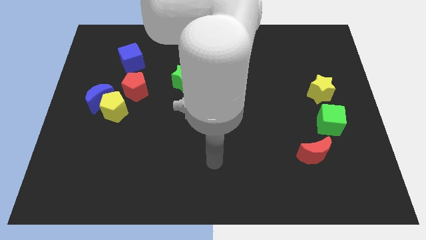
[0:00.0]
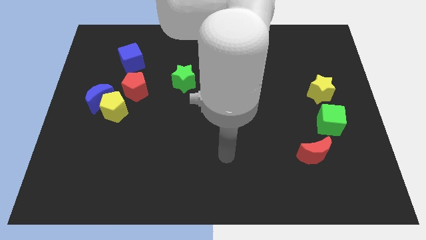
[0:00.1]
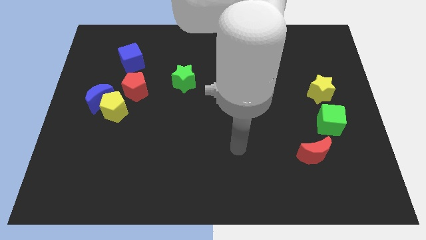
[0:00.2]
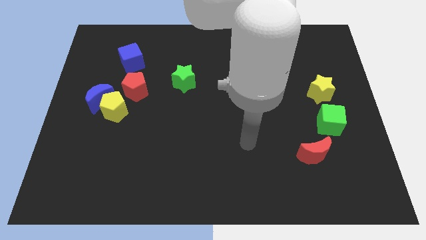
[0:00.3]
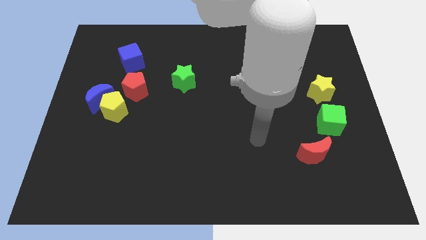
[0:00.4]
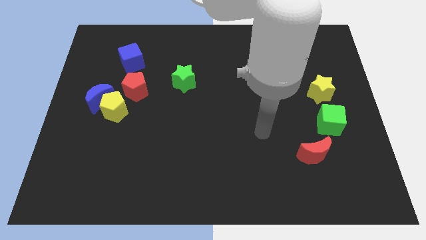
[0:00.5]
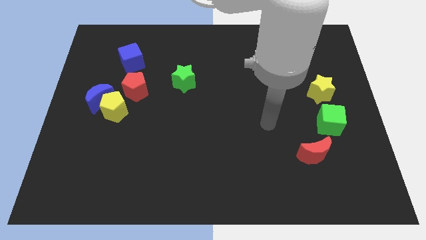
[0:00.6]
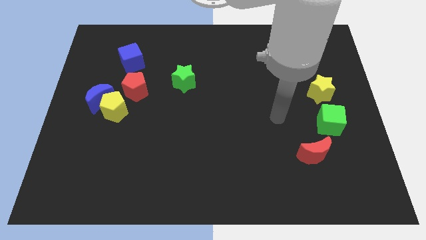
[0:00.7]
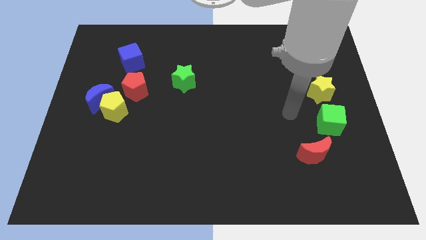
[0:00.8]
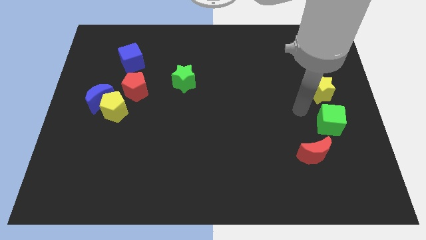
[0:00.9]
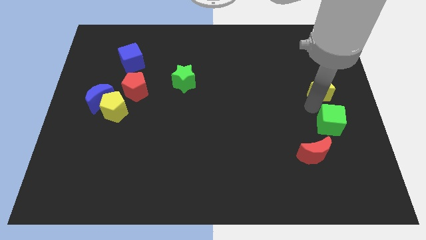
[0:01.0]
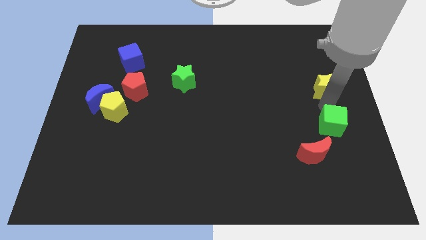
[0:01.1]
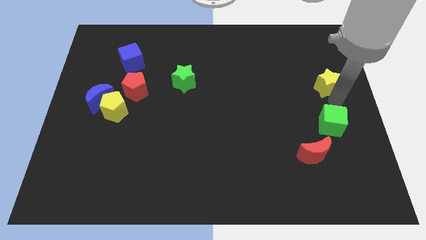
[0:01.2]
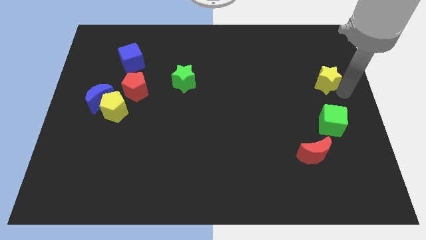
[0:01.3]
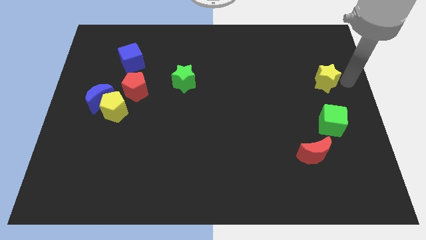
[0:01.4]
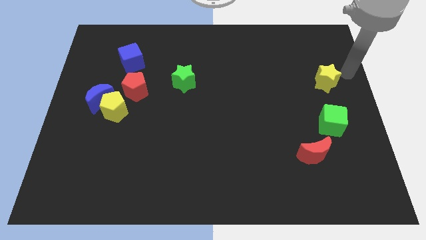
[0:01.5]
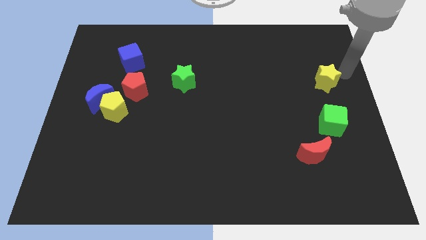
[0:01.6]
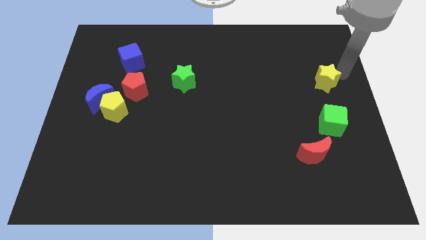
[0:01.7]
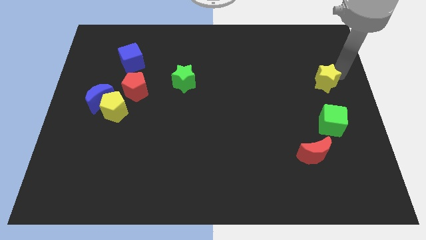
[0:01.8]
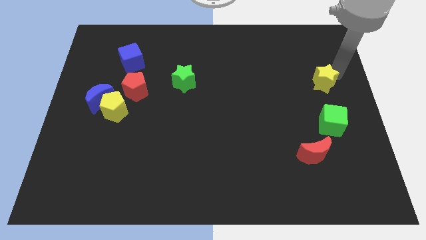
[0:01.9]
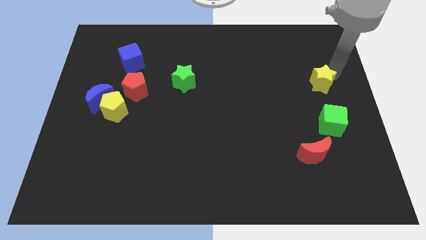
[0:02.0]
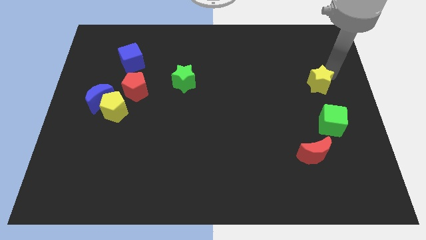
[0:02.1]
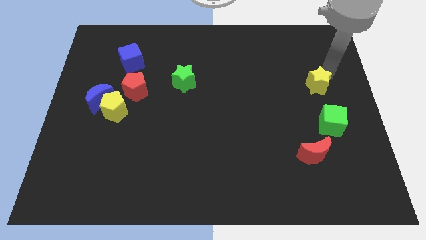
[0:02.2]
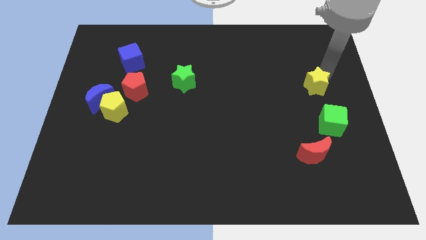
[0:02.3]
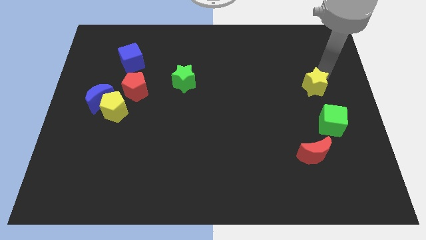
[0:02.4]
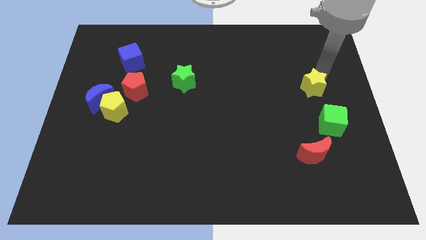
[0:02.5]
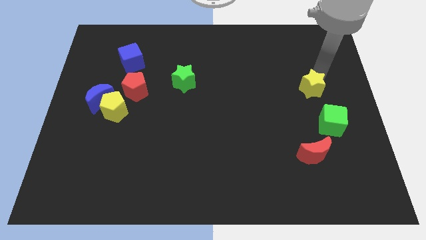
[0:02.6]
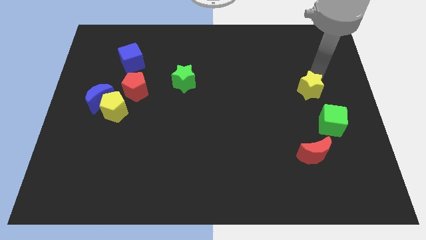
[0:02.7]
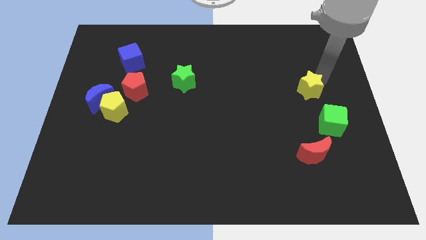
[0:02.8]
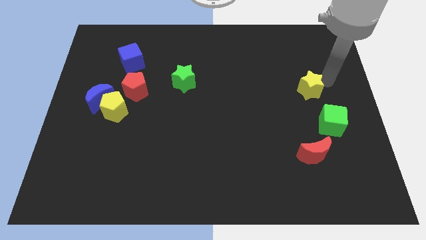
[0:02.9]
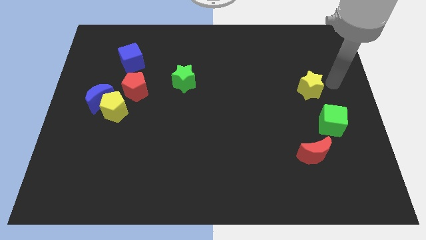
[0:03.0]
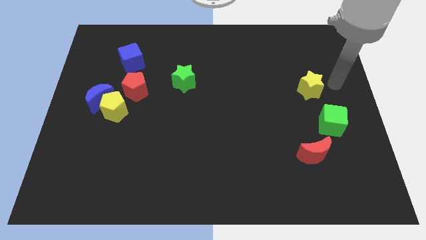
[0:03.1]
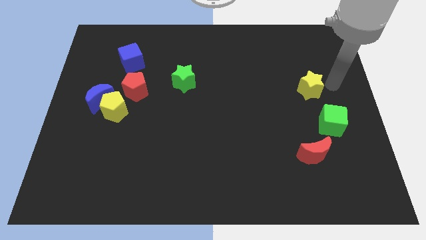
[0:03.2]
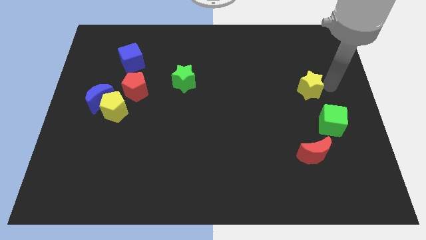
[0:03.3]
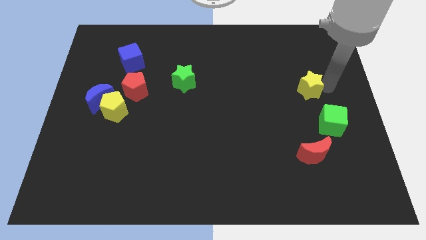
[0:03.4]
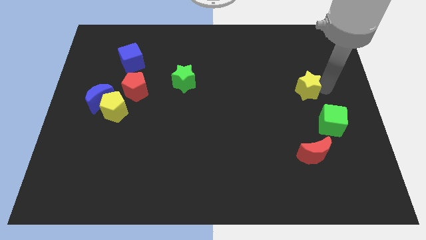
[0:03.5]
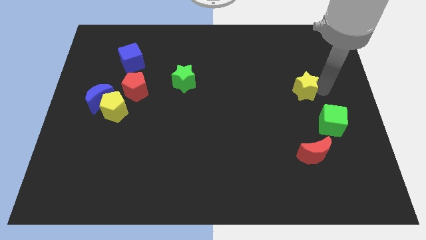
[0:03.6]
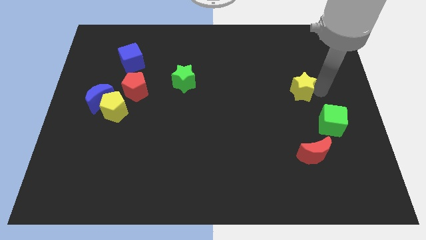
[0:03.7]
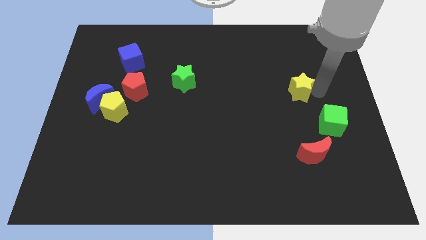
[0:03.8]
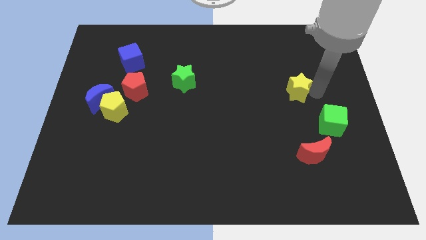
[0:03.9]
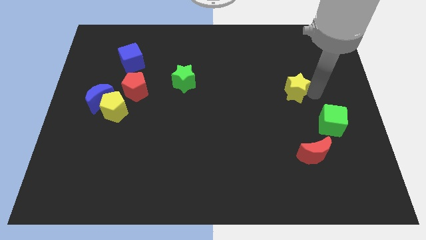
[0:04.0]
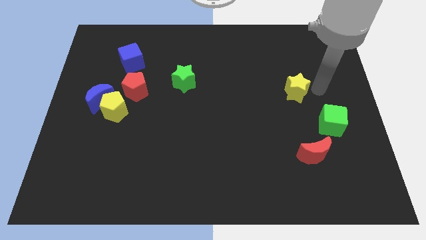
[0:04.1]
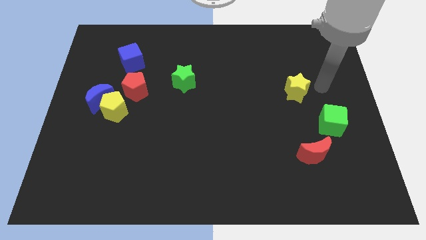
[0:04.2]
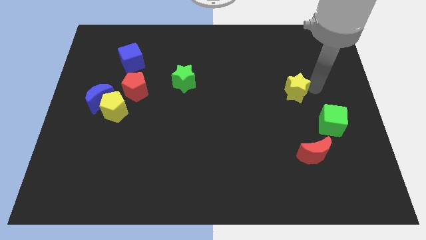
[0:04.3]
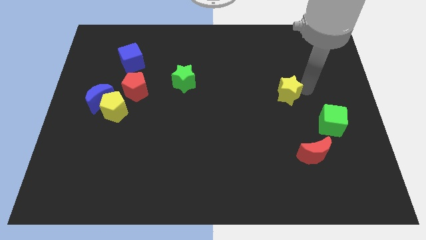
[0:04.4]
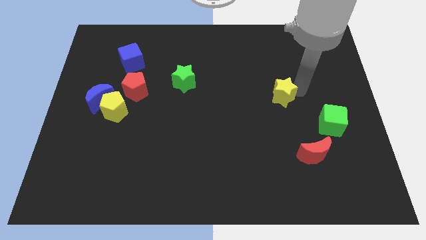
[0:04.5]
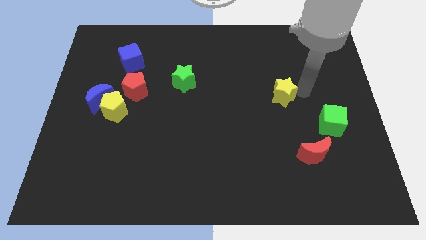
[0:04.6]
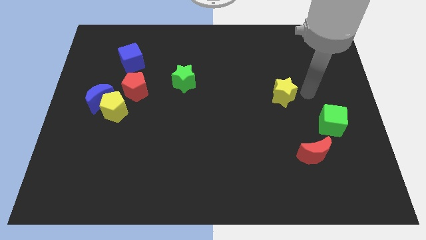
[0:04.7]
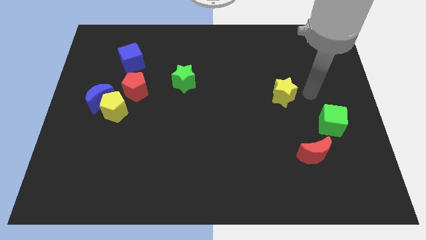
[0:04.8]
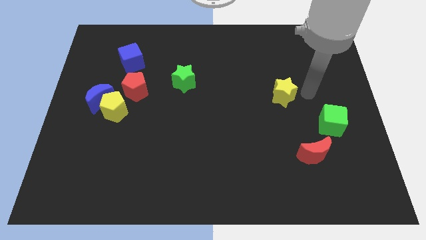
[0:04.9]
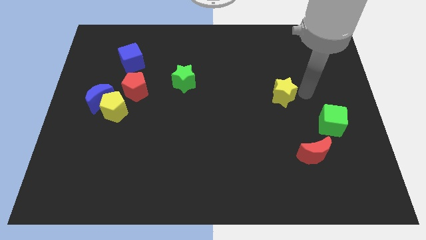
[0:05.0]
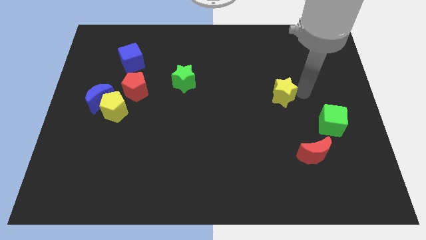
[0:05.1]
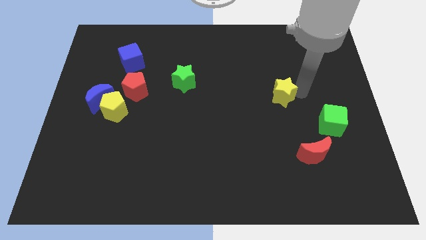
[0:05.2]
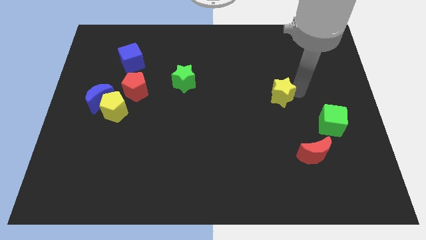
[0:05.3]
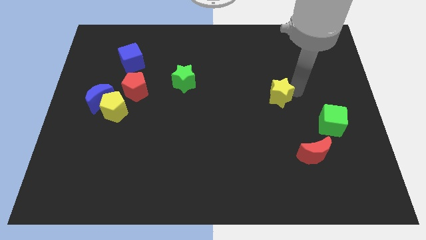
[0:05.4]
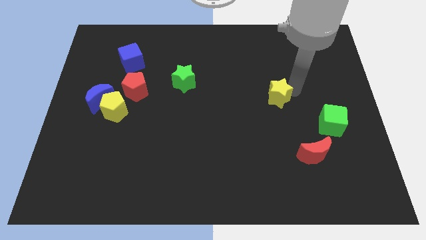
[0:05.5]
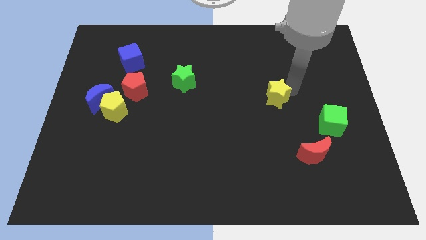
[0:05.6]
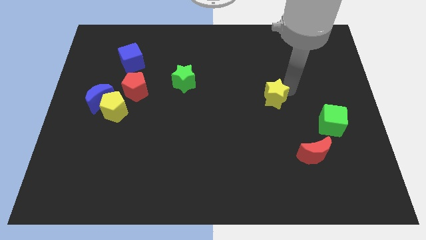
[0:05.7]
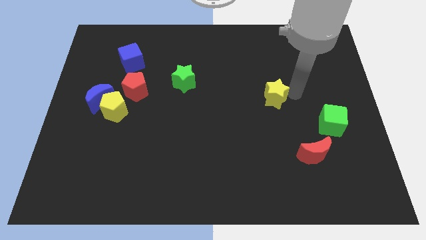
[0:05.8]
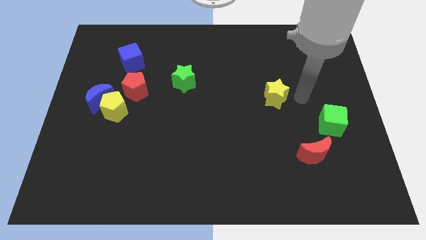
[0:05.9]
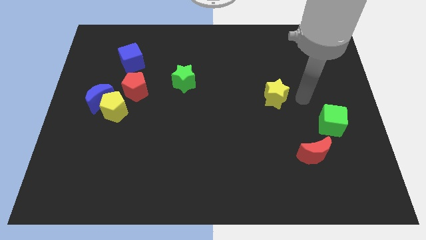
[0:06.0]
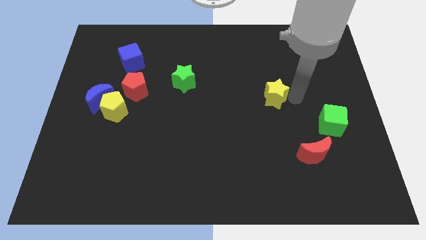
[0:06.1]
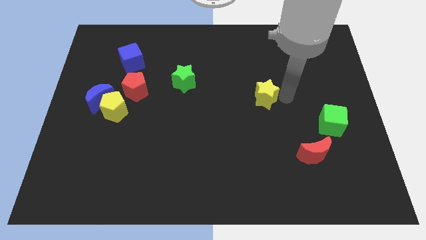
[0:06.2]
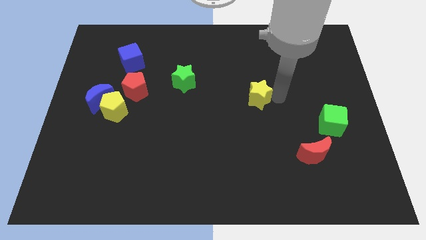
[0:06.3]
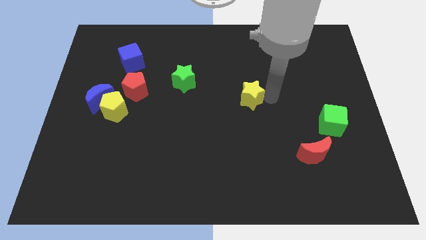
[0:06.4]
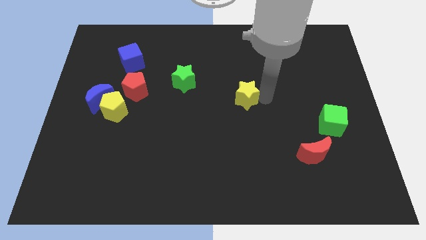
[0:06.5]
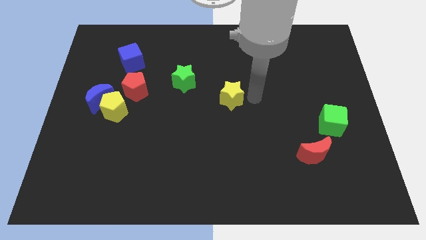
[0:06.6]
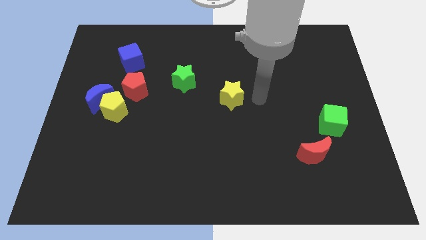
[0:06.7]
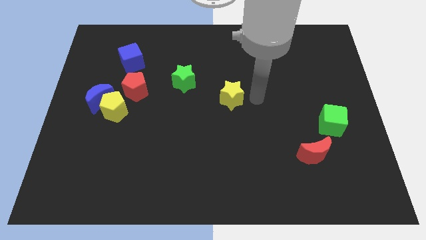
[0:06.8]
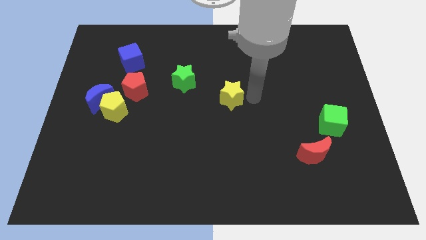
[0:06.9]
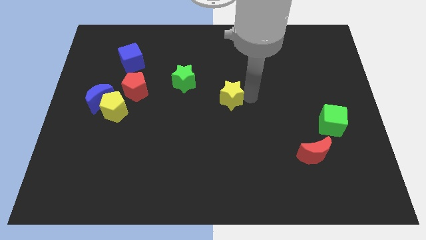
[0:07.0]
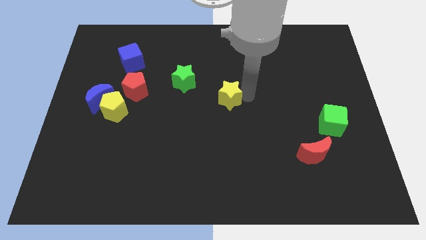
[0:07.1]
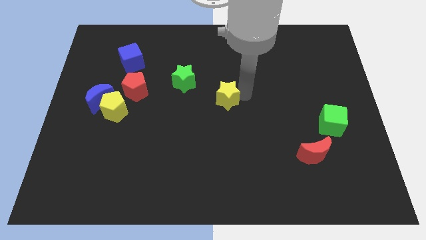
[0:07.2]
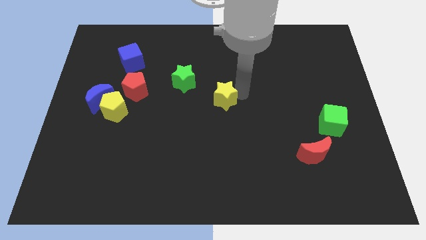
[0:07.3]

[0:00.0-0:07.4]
put the yellow star to the bottom right side of the green star

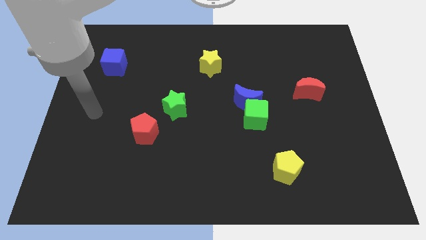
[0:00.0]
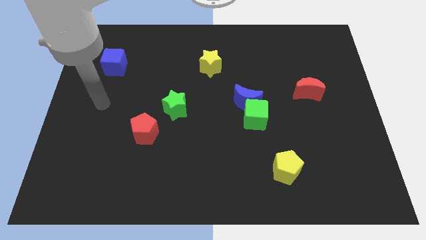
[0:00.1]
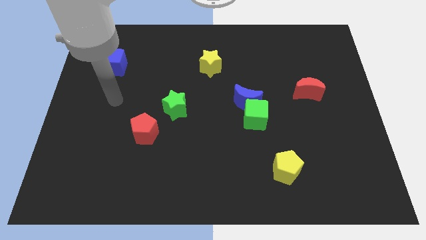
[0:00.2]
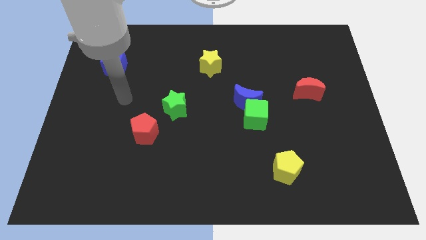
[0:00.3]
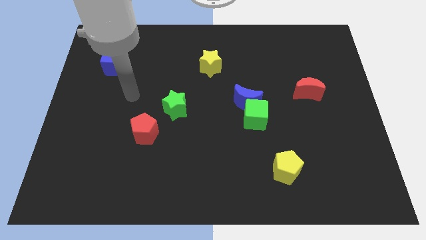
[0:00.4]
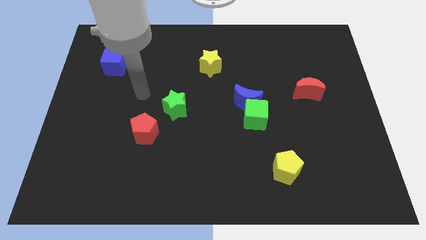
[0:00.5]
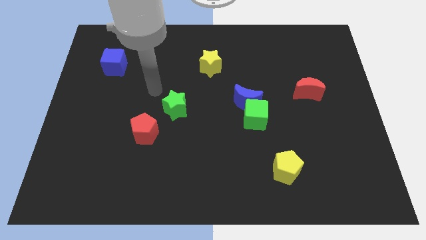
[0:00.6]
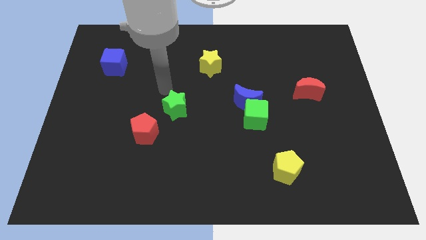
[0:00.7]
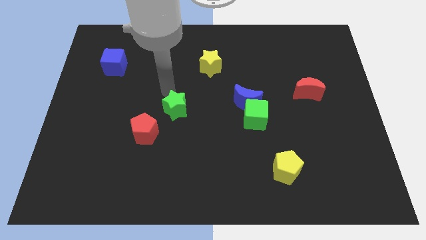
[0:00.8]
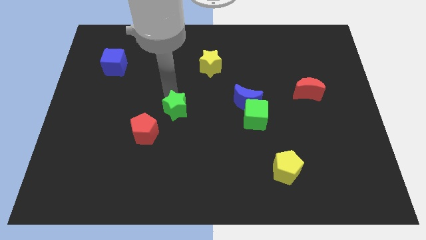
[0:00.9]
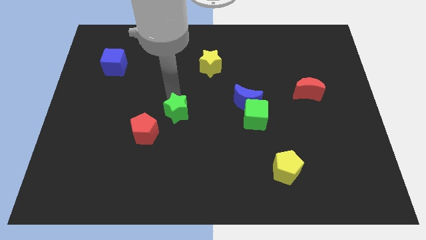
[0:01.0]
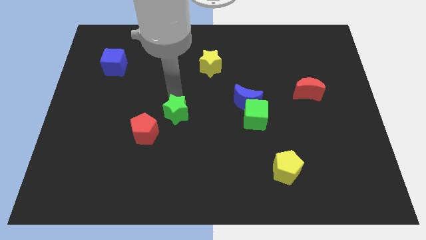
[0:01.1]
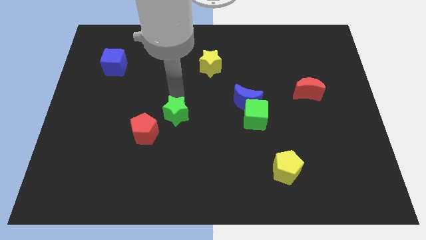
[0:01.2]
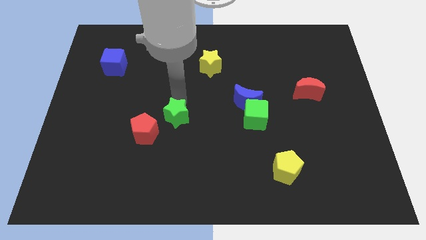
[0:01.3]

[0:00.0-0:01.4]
push the green star just right of the red pentagon
